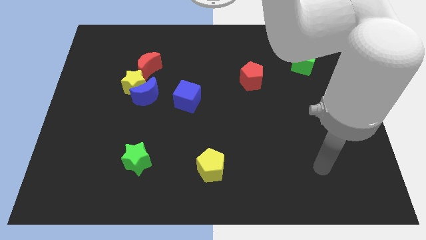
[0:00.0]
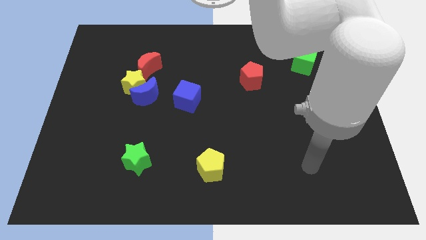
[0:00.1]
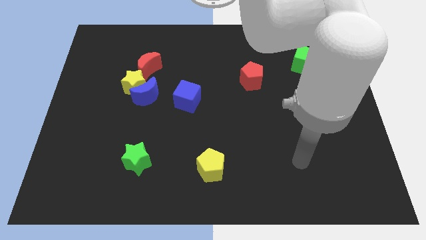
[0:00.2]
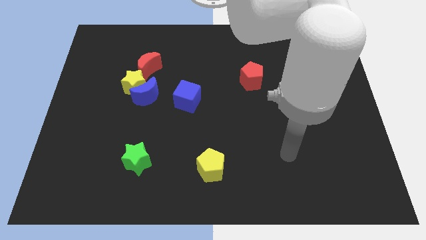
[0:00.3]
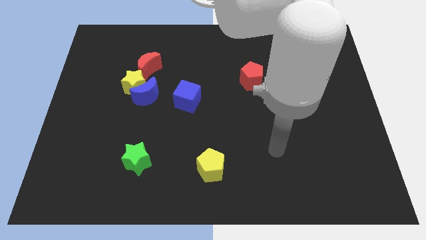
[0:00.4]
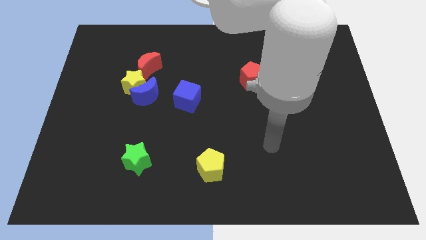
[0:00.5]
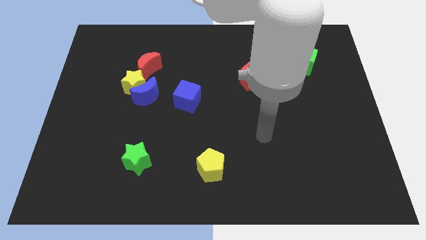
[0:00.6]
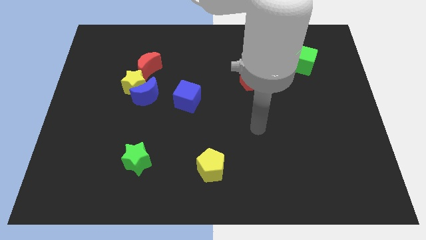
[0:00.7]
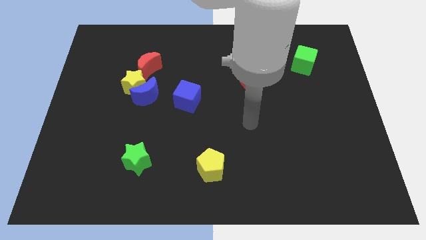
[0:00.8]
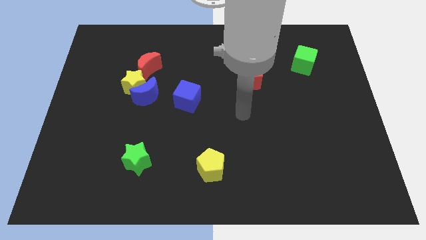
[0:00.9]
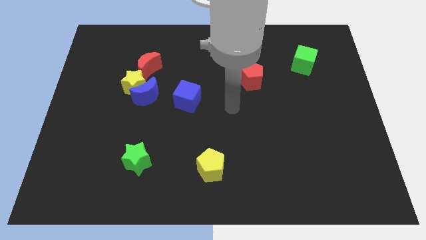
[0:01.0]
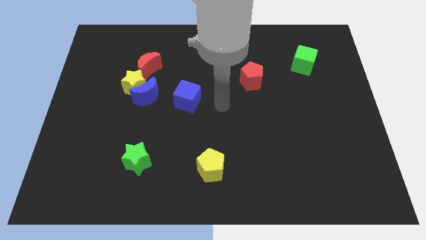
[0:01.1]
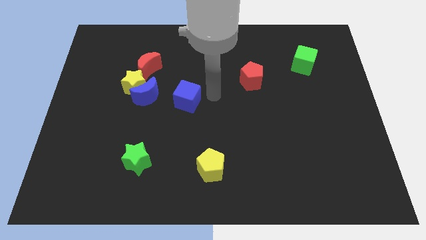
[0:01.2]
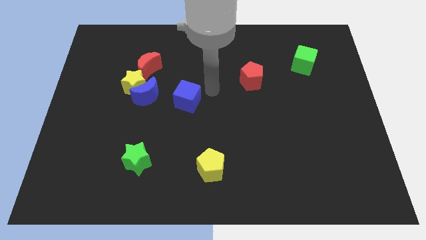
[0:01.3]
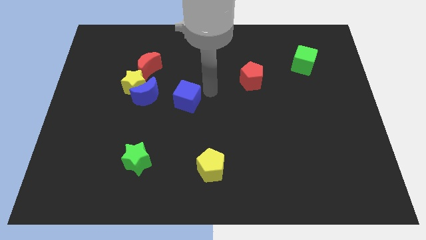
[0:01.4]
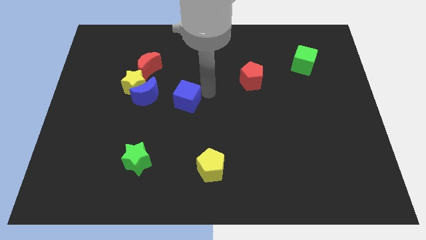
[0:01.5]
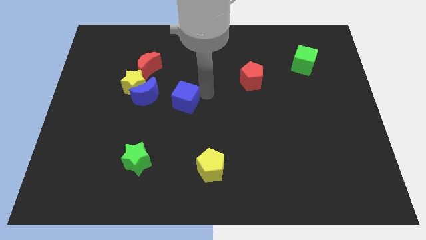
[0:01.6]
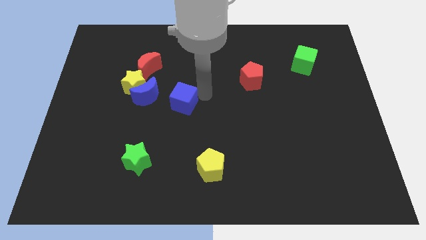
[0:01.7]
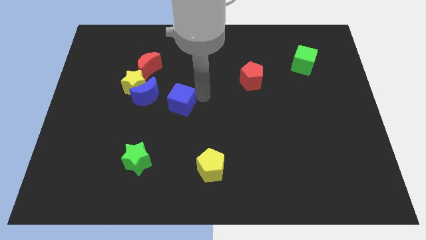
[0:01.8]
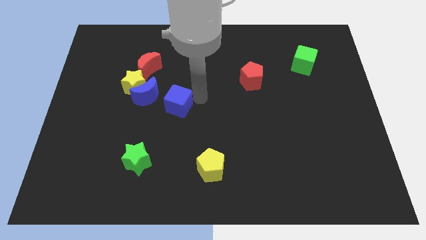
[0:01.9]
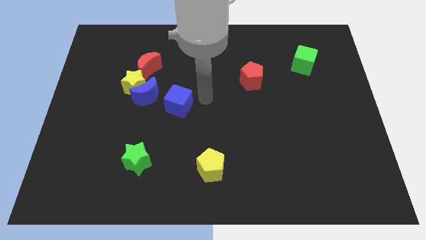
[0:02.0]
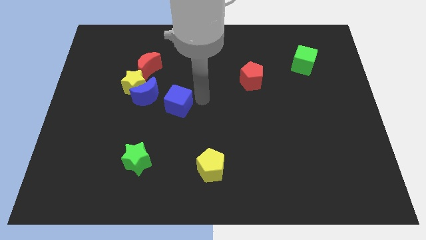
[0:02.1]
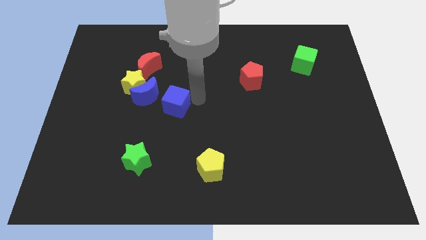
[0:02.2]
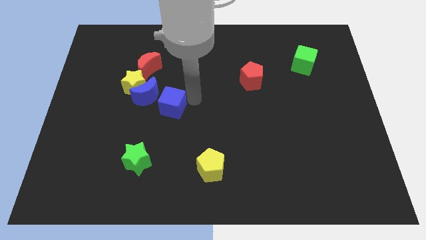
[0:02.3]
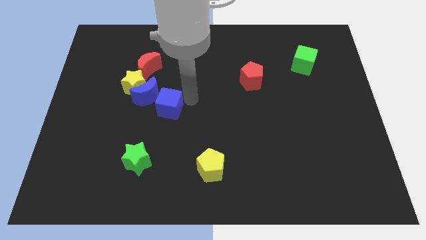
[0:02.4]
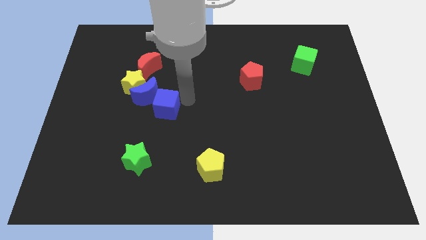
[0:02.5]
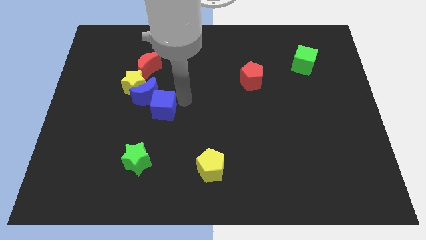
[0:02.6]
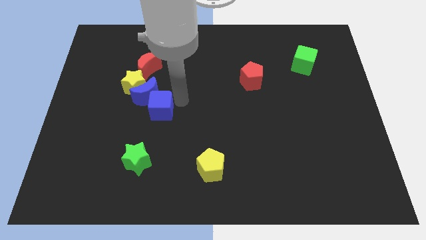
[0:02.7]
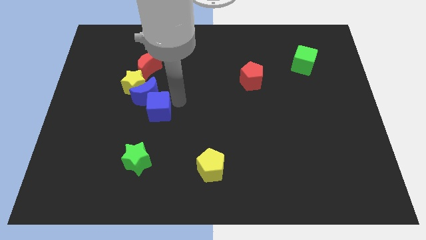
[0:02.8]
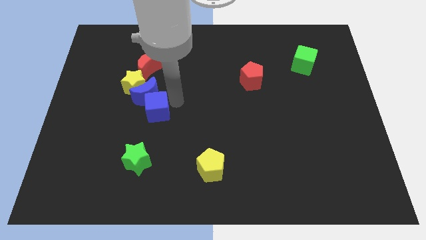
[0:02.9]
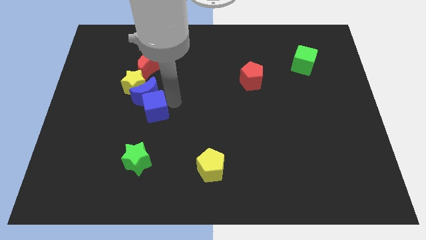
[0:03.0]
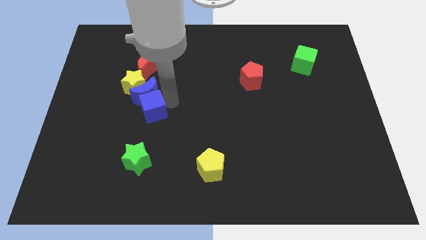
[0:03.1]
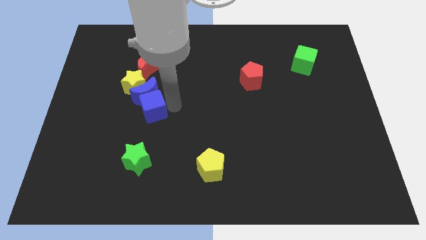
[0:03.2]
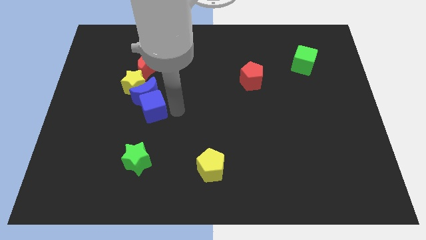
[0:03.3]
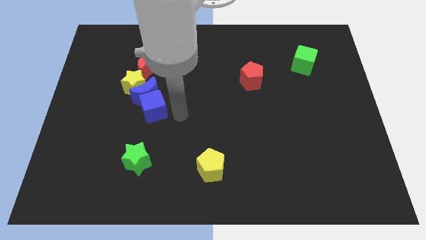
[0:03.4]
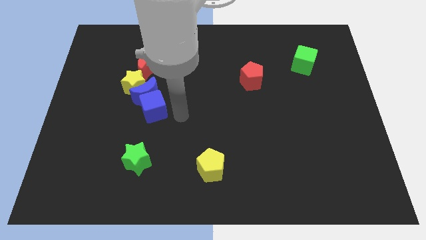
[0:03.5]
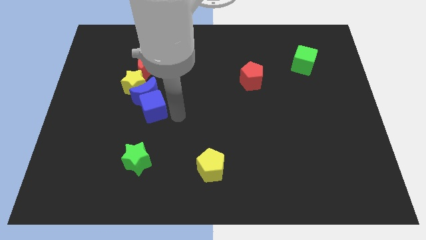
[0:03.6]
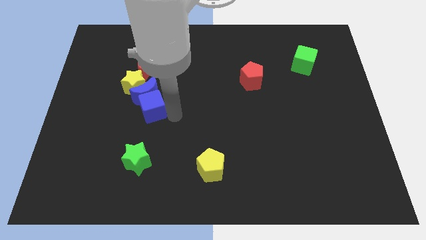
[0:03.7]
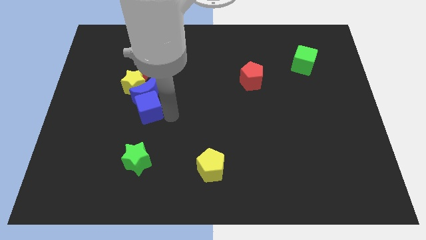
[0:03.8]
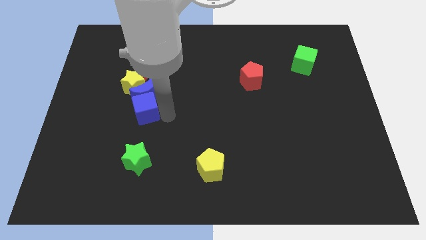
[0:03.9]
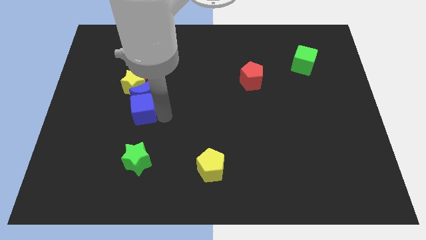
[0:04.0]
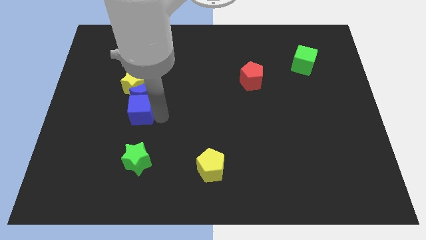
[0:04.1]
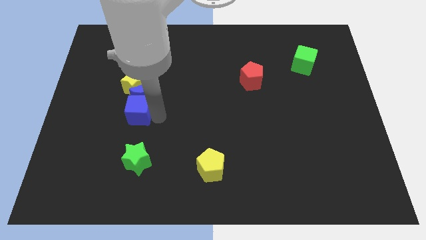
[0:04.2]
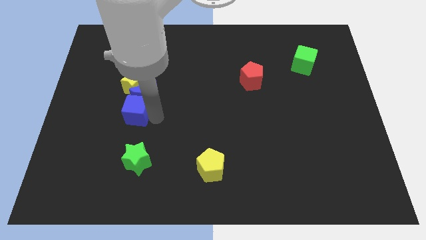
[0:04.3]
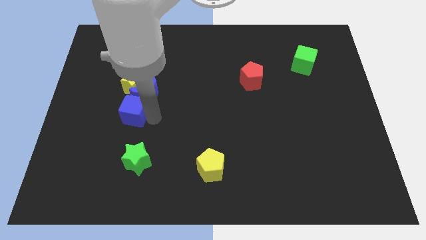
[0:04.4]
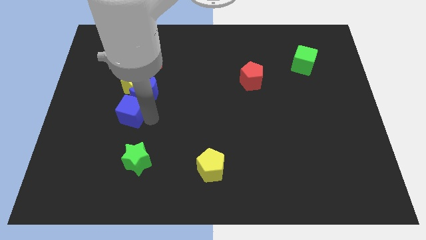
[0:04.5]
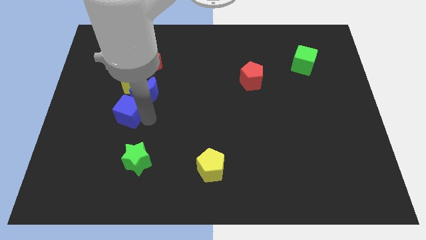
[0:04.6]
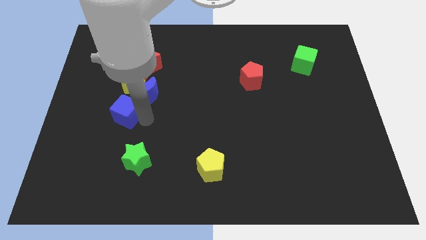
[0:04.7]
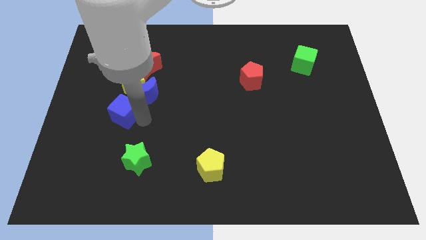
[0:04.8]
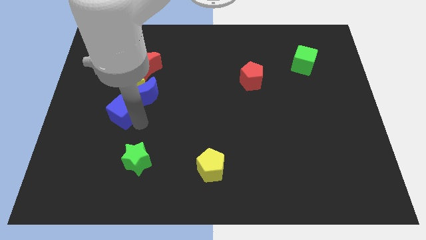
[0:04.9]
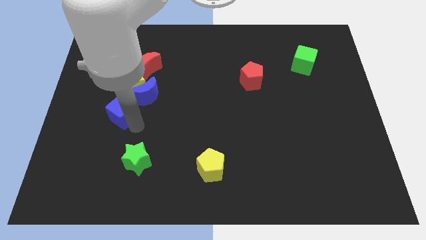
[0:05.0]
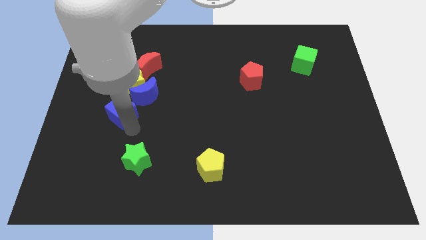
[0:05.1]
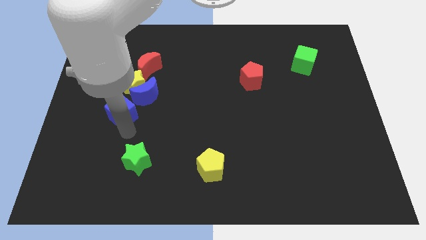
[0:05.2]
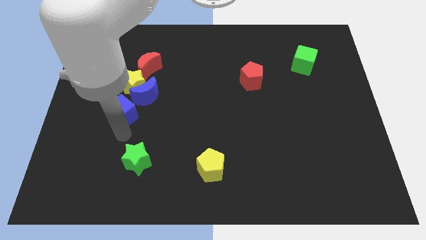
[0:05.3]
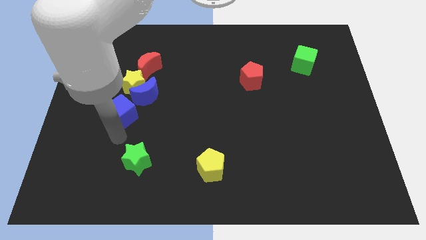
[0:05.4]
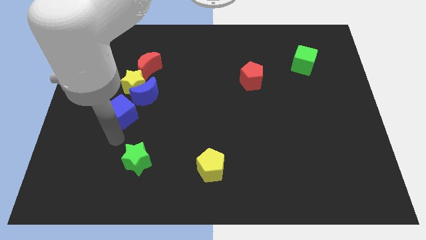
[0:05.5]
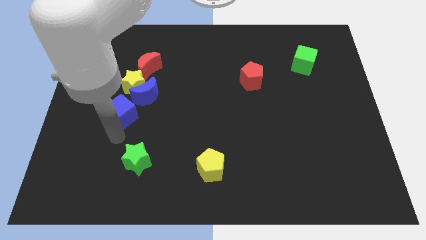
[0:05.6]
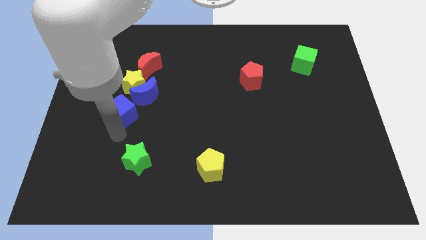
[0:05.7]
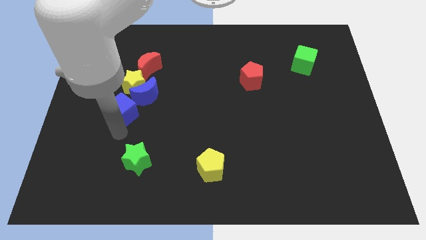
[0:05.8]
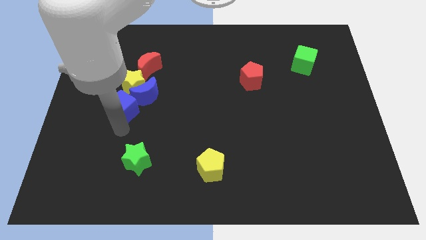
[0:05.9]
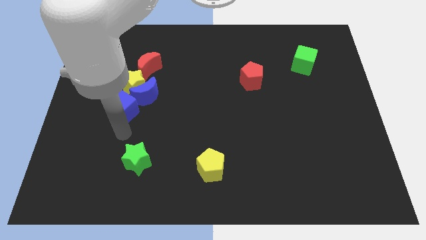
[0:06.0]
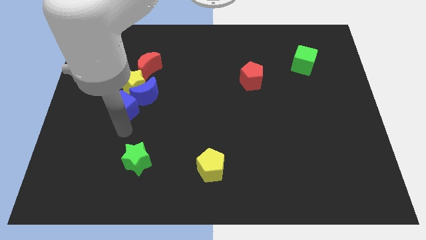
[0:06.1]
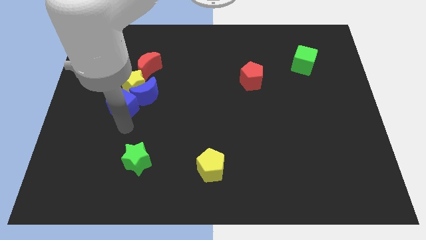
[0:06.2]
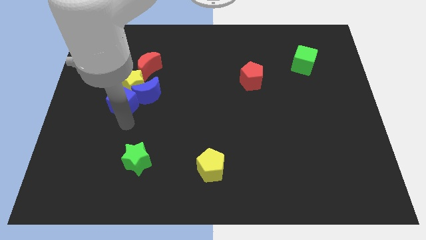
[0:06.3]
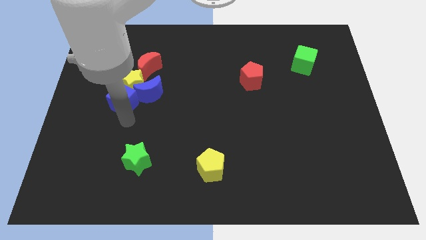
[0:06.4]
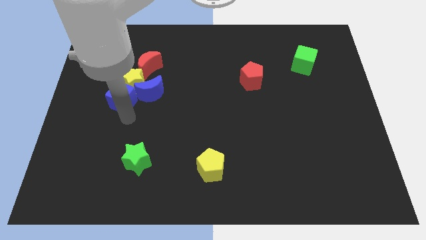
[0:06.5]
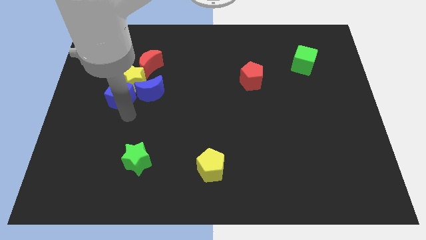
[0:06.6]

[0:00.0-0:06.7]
put the blue cube to the bottom left of the red moon

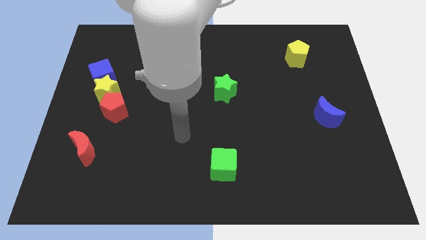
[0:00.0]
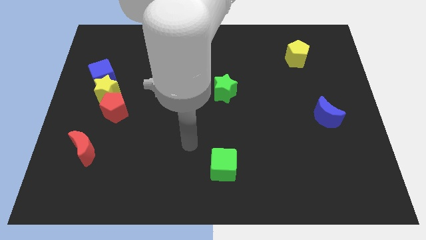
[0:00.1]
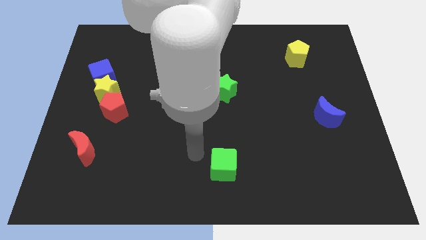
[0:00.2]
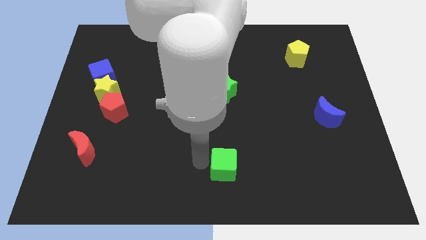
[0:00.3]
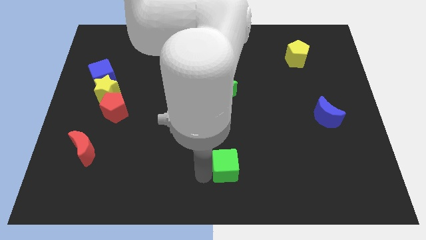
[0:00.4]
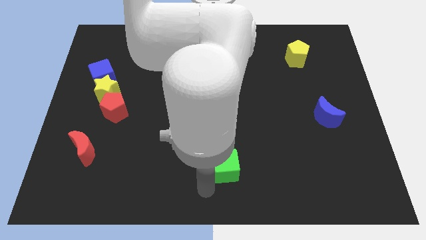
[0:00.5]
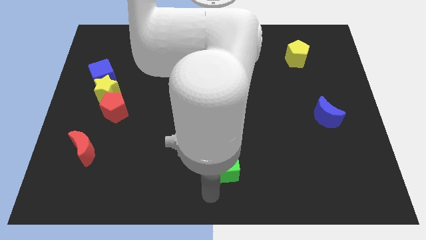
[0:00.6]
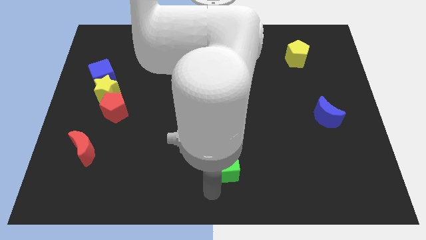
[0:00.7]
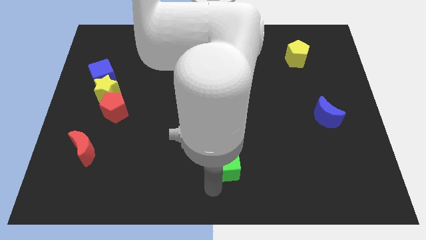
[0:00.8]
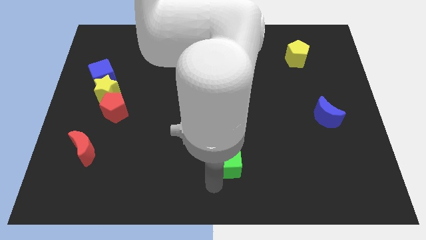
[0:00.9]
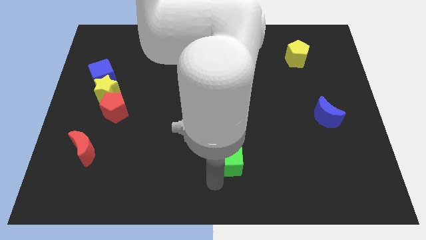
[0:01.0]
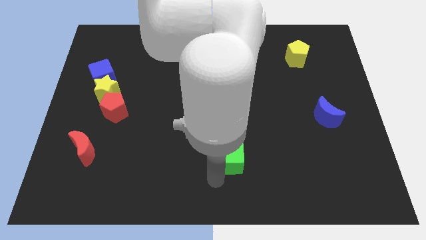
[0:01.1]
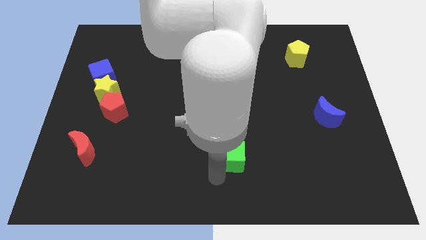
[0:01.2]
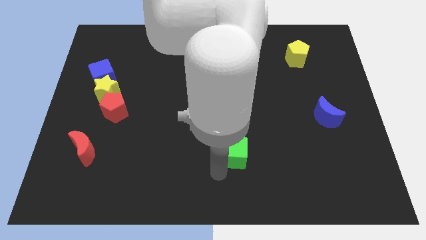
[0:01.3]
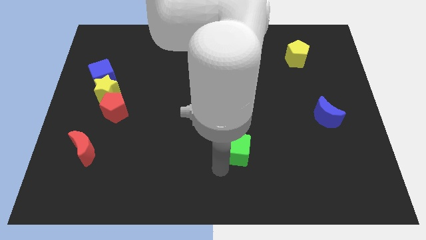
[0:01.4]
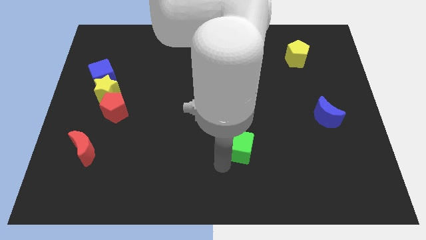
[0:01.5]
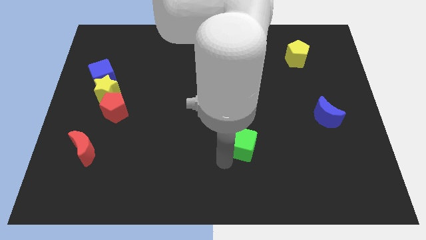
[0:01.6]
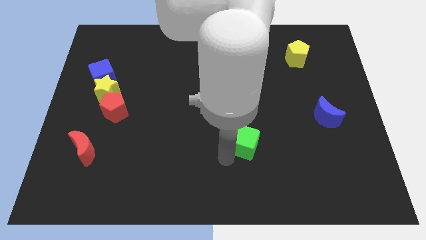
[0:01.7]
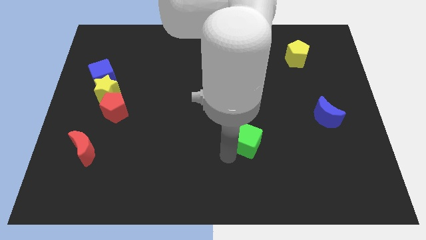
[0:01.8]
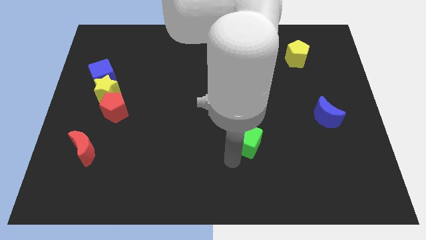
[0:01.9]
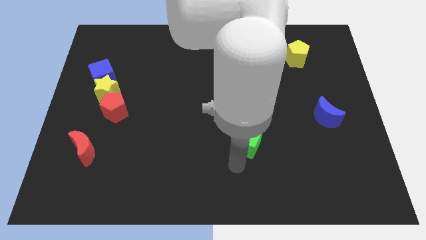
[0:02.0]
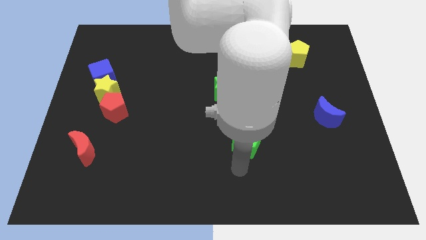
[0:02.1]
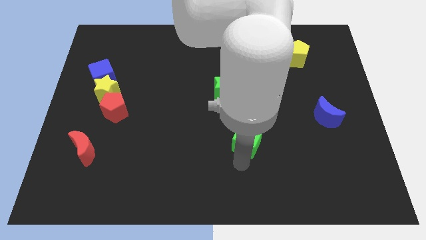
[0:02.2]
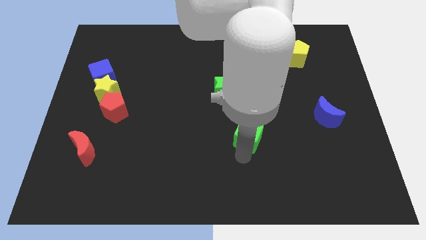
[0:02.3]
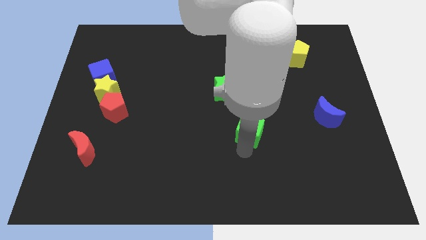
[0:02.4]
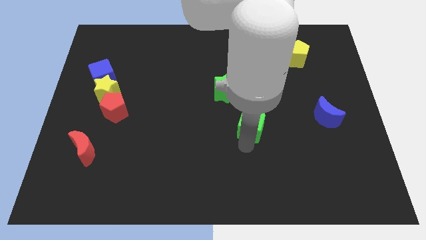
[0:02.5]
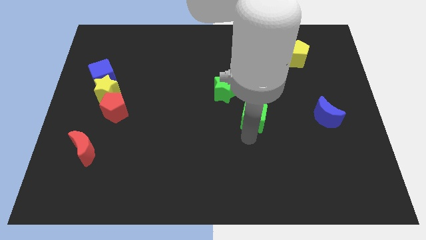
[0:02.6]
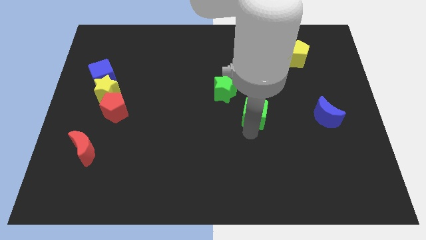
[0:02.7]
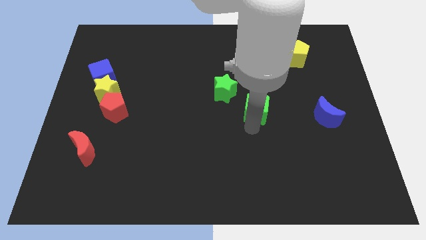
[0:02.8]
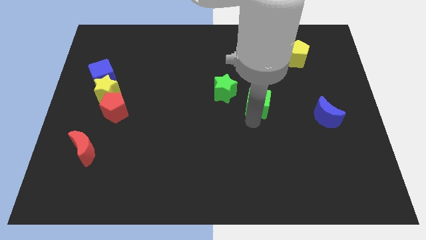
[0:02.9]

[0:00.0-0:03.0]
slide the green cube right of the green star
